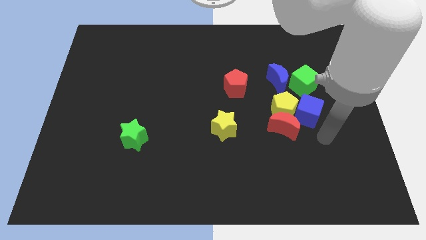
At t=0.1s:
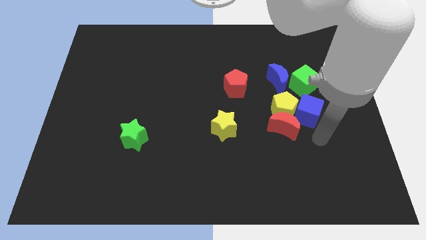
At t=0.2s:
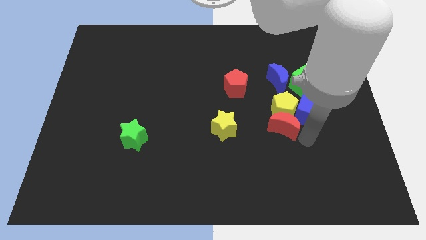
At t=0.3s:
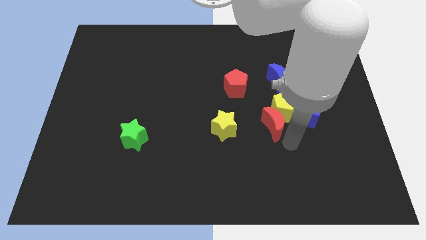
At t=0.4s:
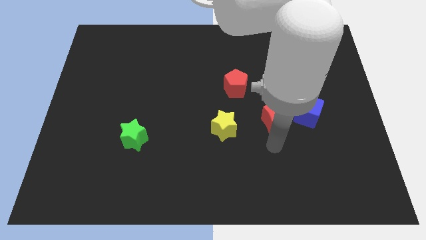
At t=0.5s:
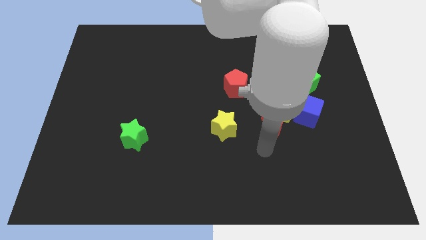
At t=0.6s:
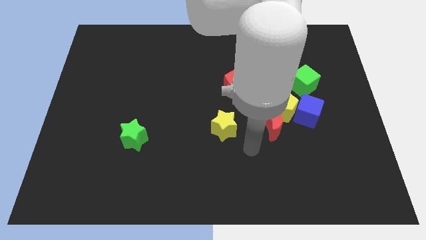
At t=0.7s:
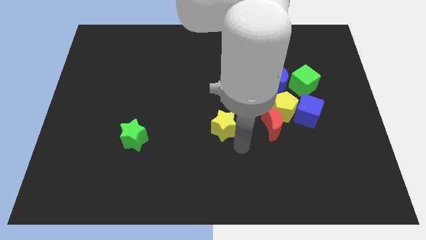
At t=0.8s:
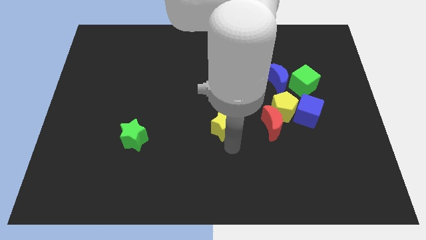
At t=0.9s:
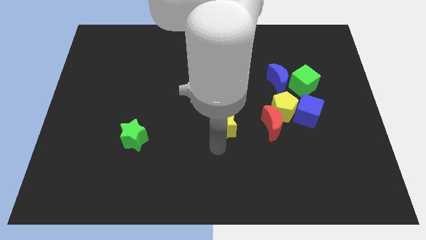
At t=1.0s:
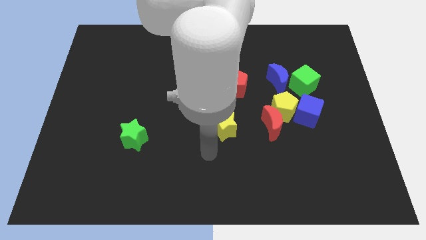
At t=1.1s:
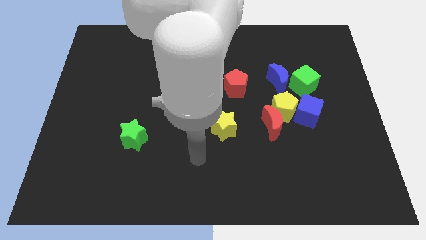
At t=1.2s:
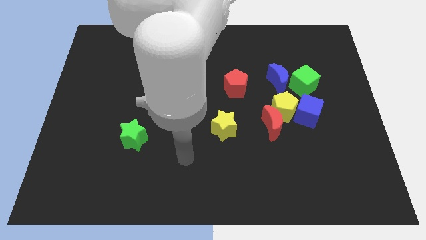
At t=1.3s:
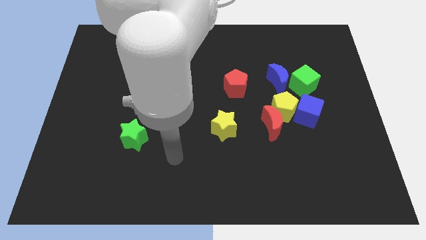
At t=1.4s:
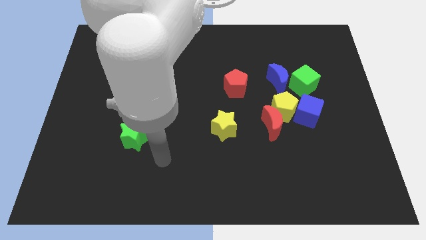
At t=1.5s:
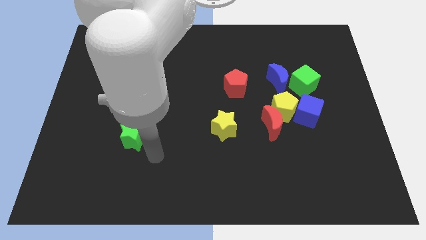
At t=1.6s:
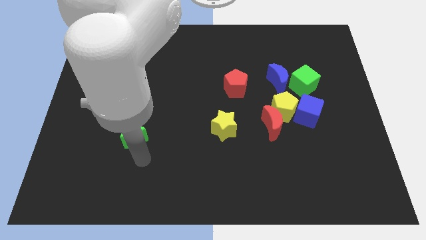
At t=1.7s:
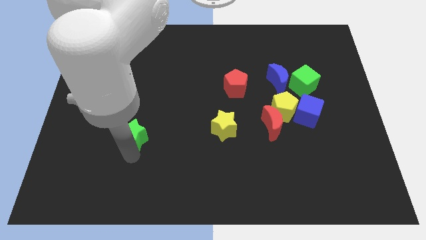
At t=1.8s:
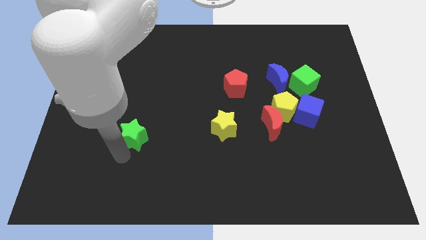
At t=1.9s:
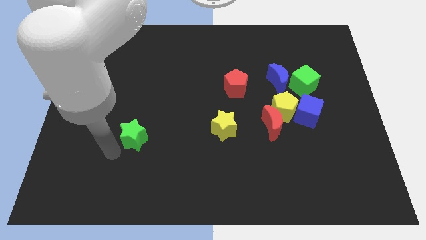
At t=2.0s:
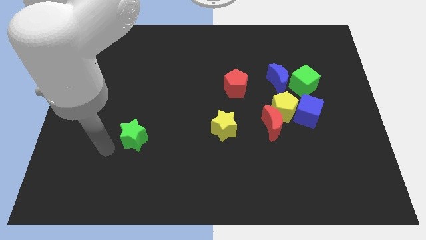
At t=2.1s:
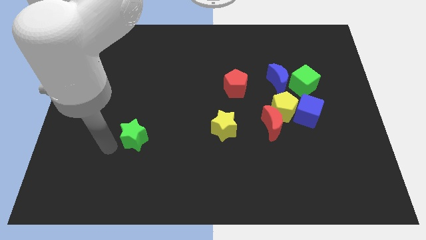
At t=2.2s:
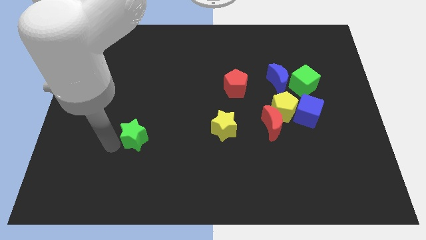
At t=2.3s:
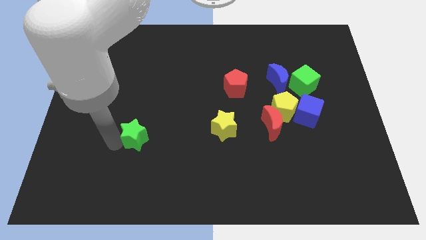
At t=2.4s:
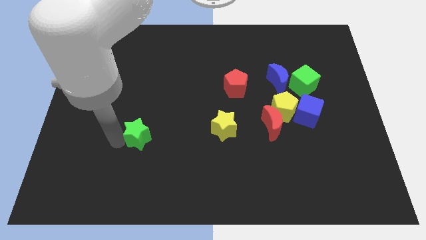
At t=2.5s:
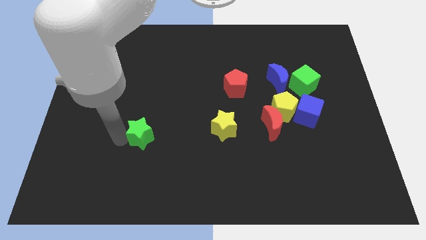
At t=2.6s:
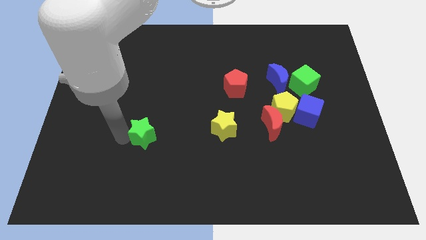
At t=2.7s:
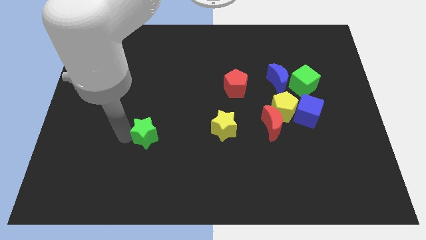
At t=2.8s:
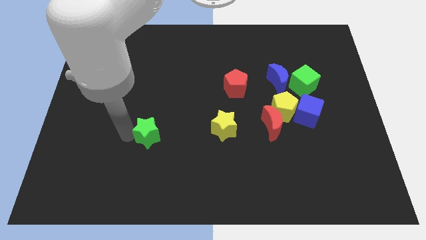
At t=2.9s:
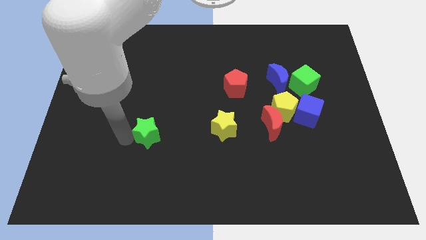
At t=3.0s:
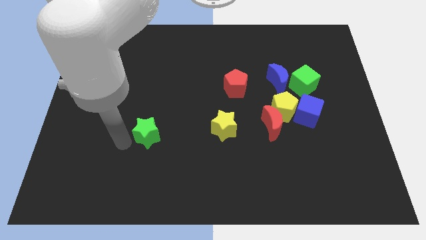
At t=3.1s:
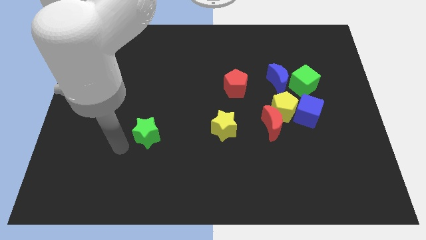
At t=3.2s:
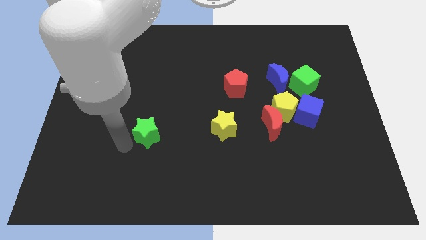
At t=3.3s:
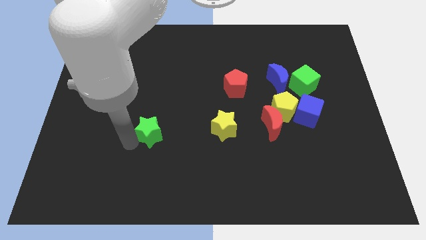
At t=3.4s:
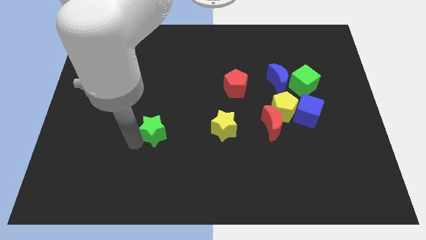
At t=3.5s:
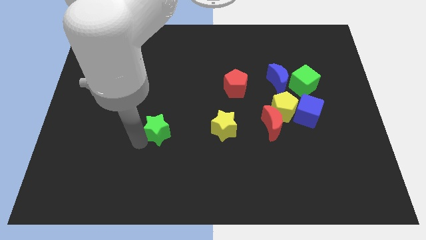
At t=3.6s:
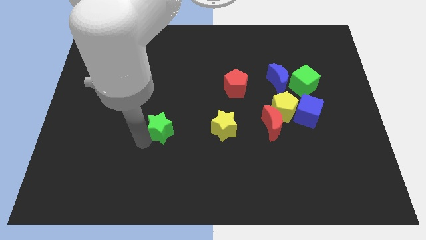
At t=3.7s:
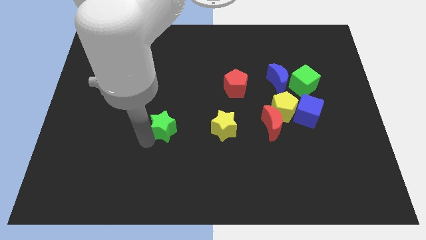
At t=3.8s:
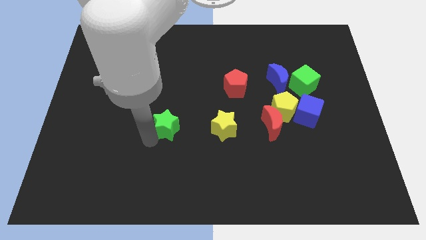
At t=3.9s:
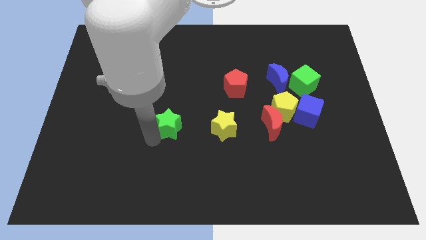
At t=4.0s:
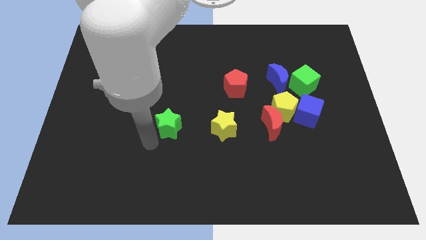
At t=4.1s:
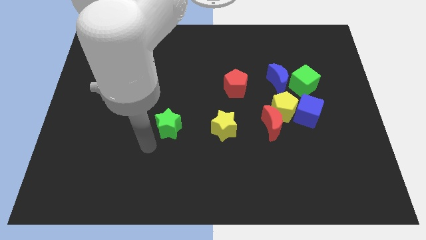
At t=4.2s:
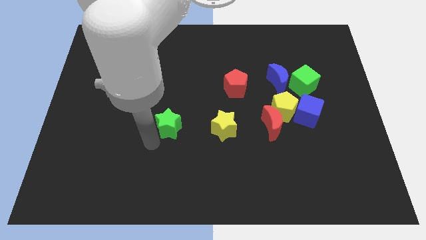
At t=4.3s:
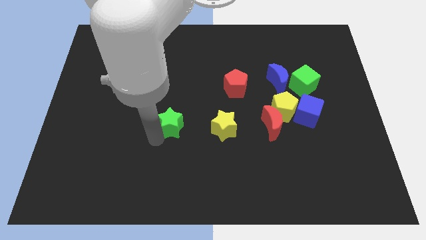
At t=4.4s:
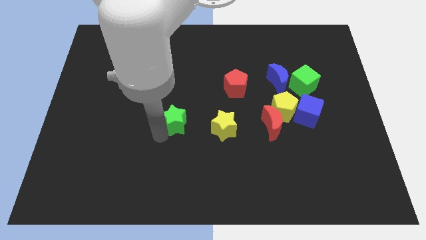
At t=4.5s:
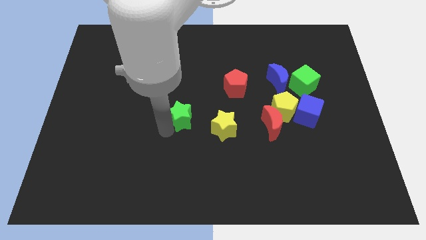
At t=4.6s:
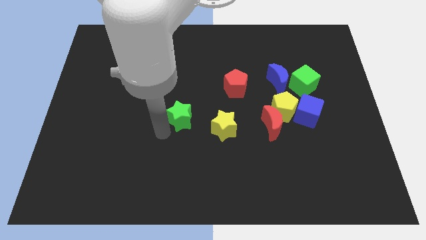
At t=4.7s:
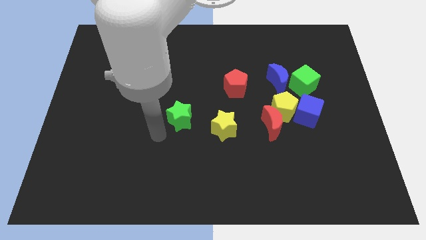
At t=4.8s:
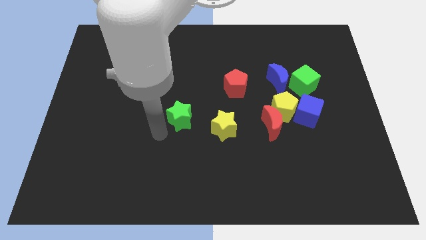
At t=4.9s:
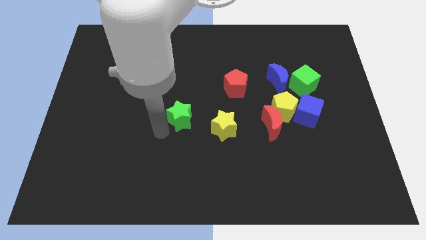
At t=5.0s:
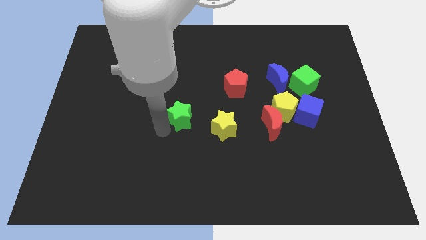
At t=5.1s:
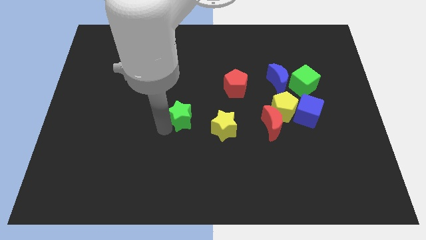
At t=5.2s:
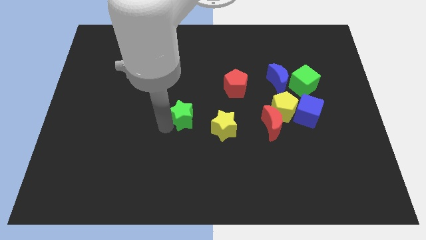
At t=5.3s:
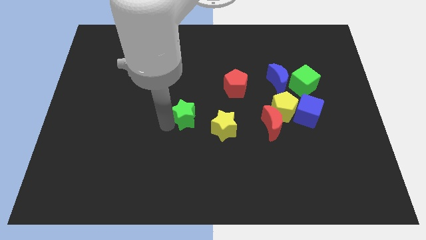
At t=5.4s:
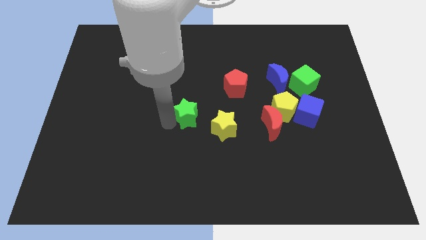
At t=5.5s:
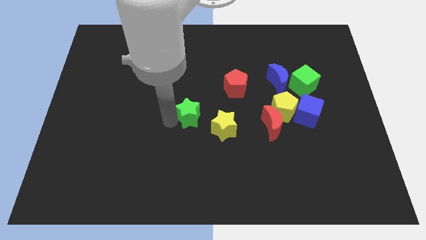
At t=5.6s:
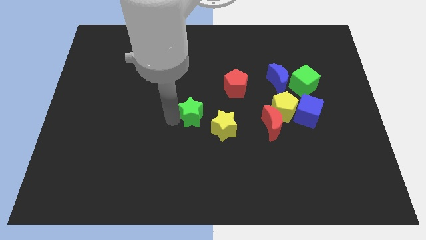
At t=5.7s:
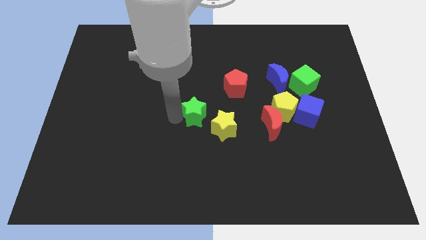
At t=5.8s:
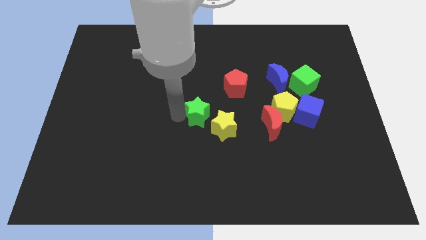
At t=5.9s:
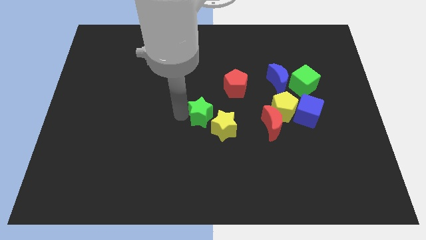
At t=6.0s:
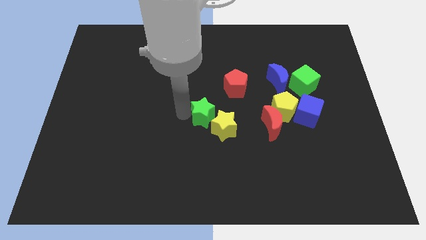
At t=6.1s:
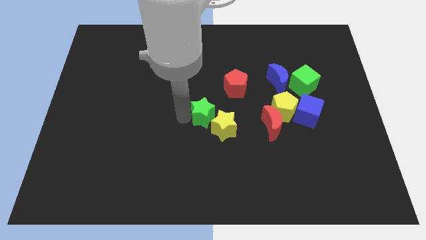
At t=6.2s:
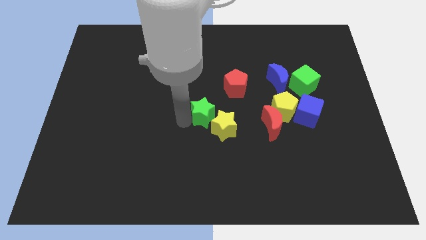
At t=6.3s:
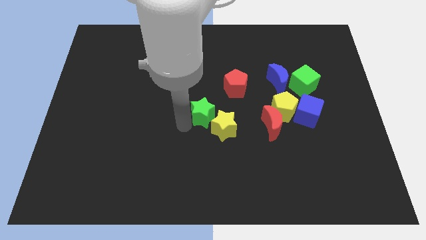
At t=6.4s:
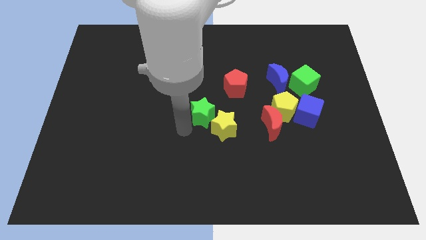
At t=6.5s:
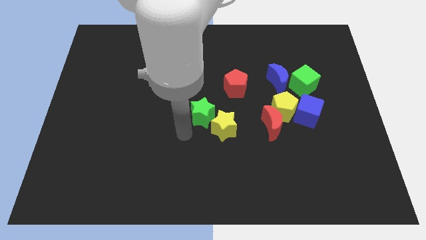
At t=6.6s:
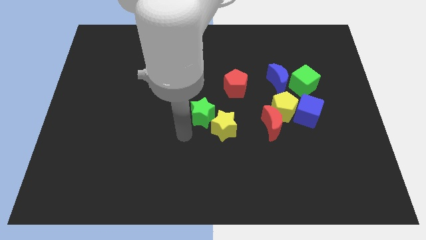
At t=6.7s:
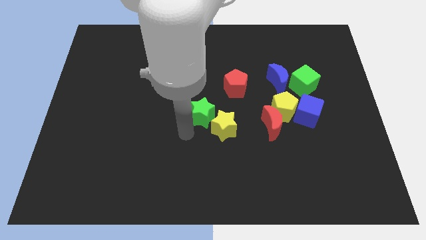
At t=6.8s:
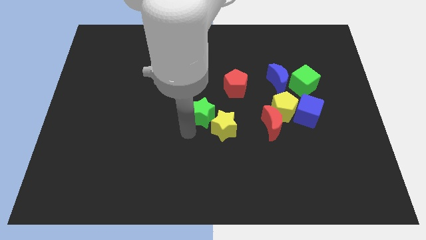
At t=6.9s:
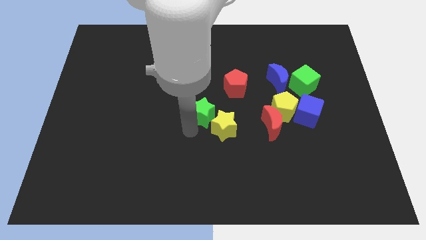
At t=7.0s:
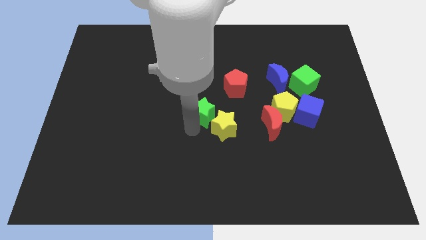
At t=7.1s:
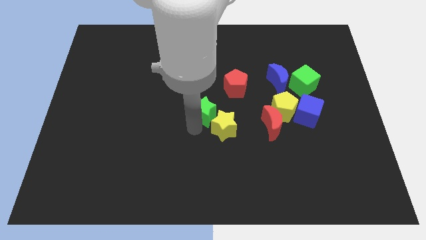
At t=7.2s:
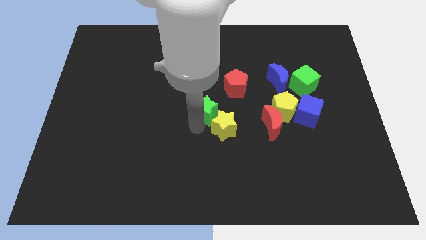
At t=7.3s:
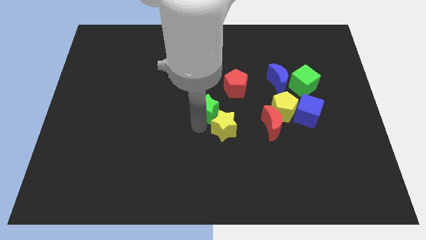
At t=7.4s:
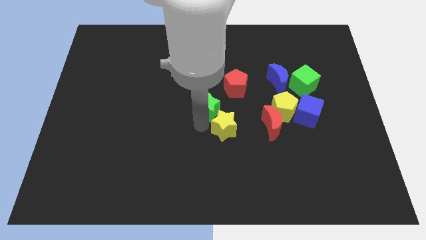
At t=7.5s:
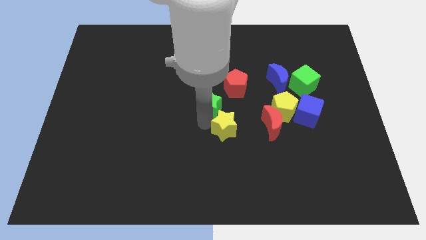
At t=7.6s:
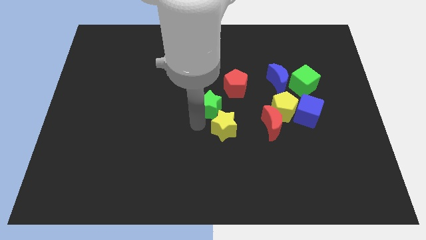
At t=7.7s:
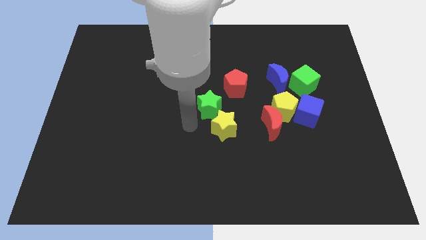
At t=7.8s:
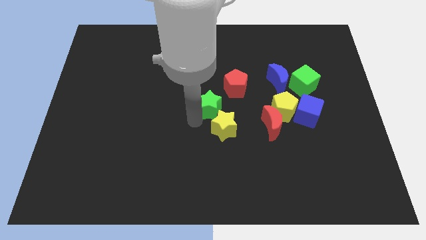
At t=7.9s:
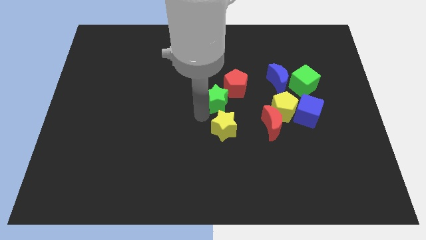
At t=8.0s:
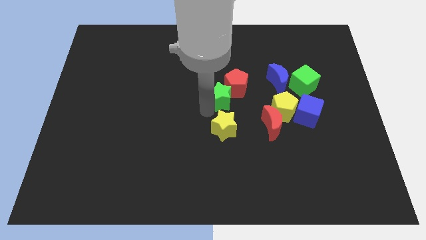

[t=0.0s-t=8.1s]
put the green star next to the red pentagon
